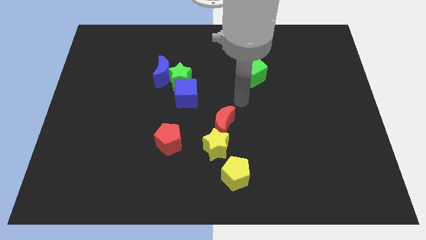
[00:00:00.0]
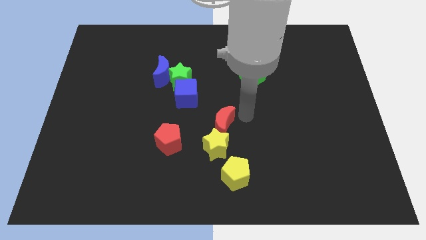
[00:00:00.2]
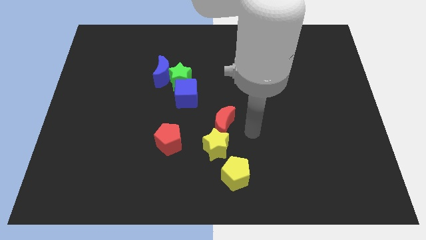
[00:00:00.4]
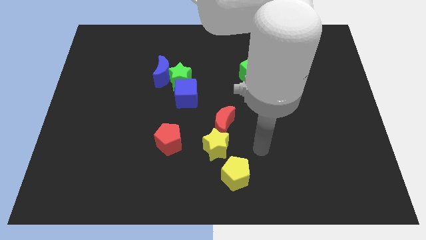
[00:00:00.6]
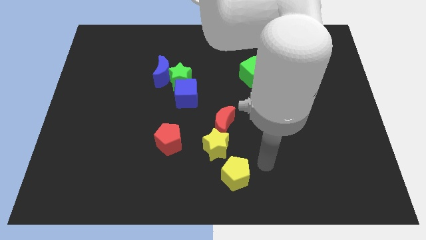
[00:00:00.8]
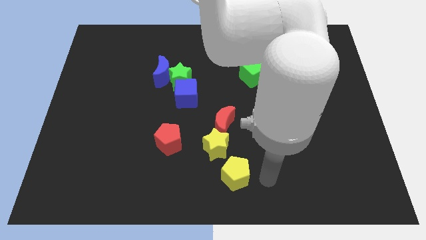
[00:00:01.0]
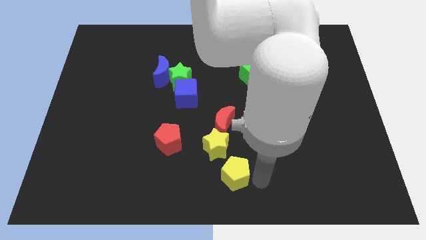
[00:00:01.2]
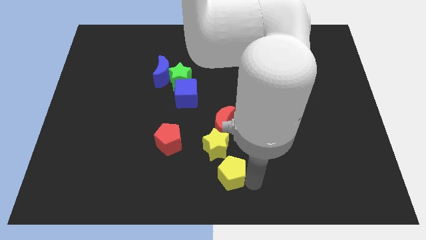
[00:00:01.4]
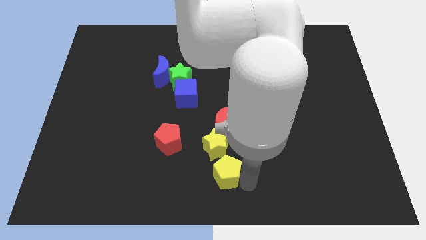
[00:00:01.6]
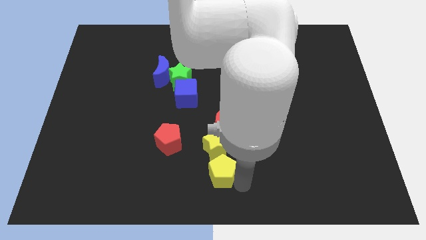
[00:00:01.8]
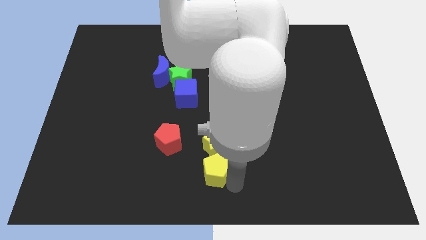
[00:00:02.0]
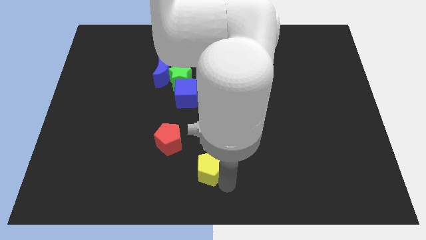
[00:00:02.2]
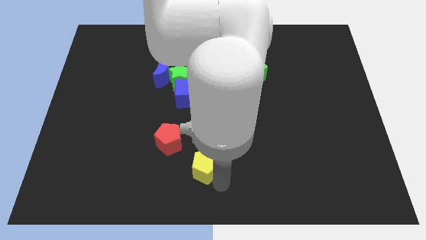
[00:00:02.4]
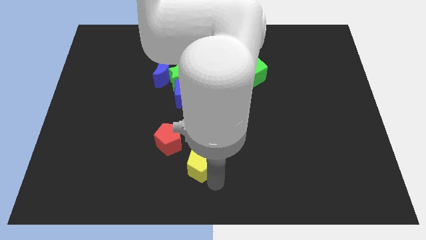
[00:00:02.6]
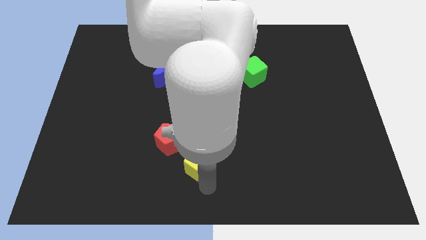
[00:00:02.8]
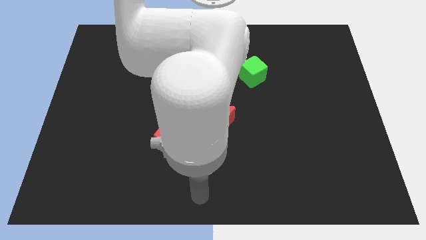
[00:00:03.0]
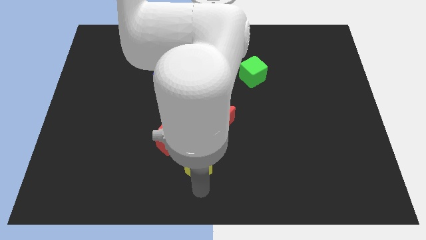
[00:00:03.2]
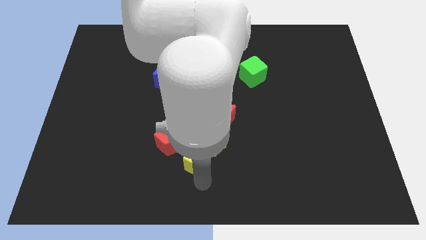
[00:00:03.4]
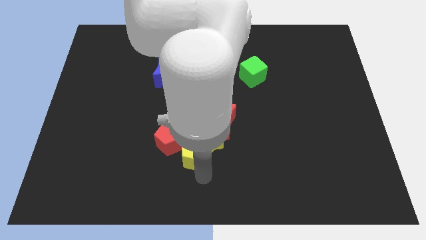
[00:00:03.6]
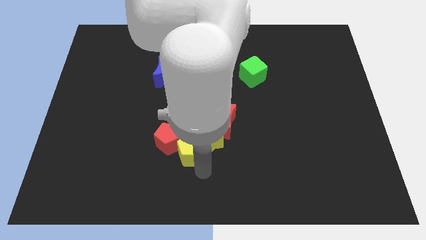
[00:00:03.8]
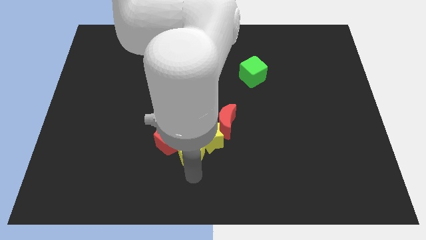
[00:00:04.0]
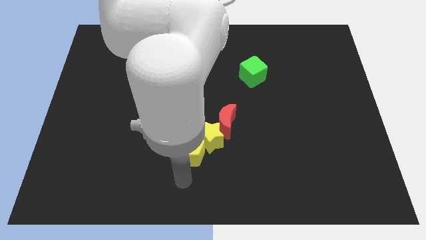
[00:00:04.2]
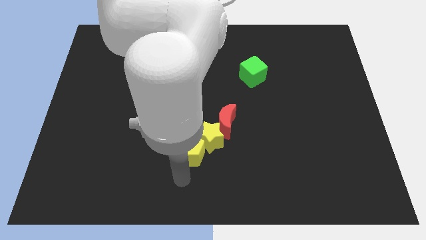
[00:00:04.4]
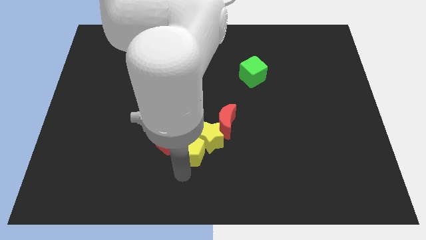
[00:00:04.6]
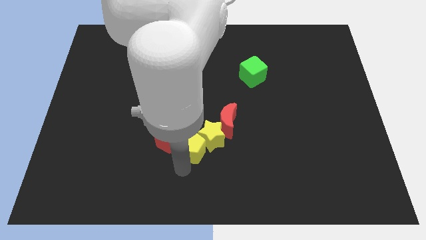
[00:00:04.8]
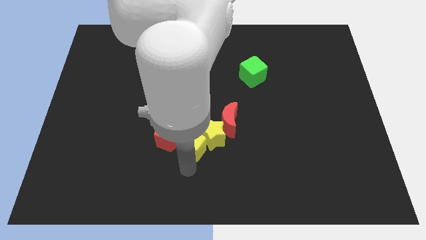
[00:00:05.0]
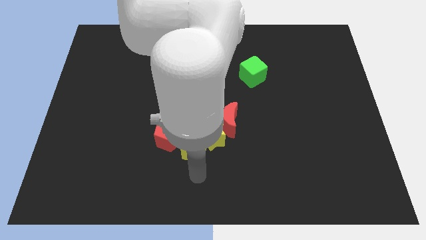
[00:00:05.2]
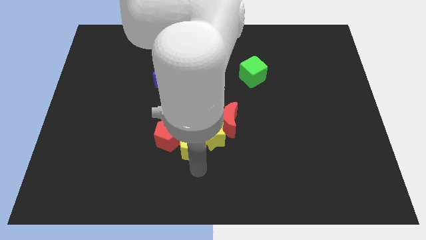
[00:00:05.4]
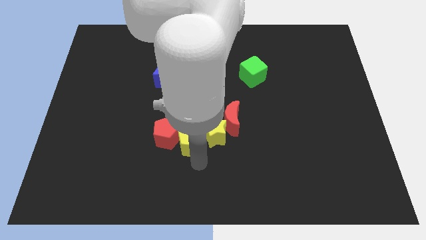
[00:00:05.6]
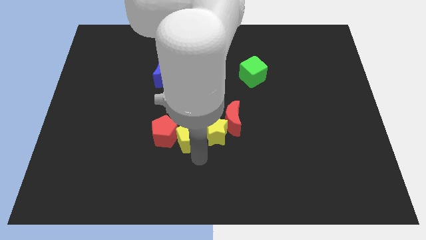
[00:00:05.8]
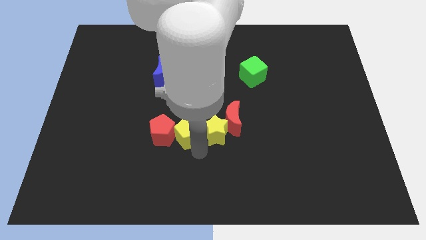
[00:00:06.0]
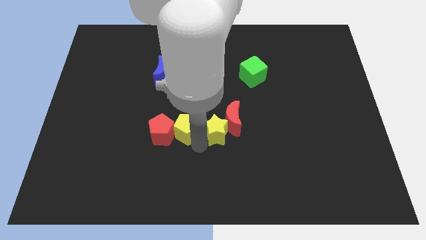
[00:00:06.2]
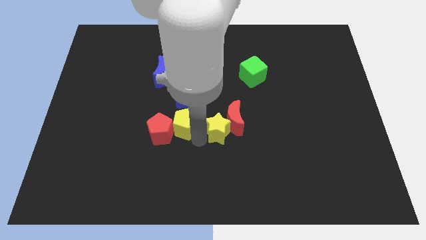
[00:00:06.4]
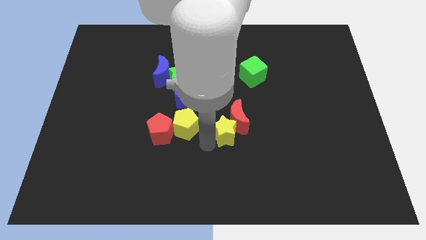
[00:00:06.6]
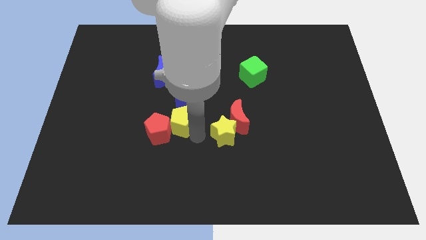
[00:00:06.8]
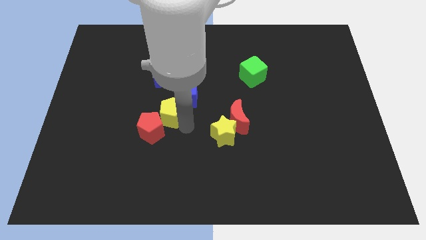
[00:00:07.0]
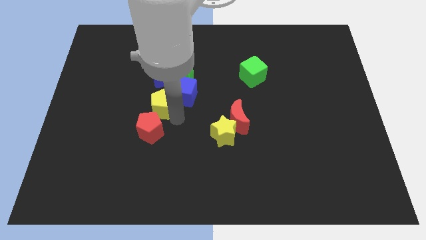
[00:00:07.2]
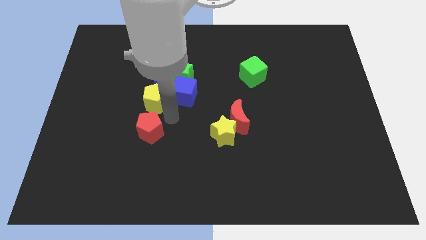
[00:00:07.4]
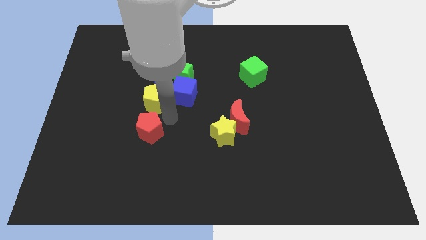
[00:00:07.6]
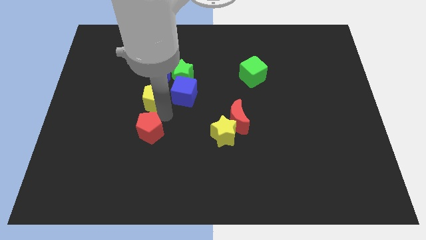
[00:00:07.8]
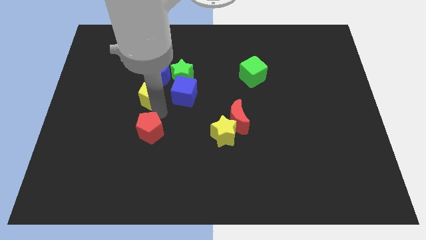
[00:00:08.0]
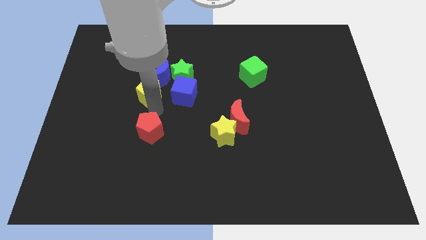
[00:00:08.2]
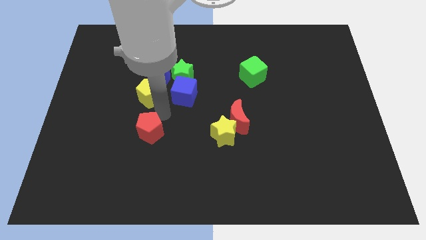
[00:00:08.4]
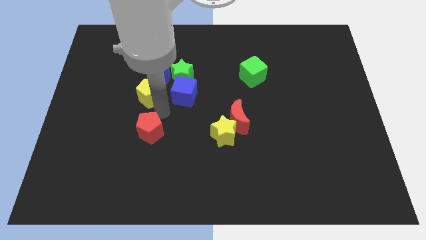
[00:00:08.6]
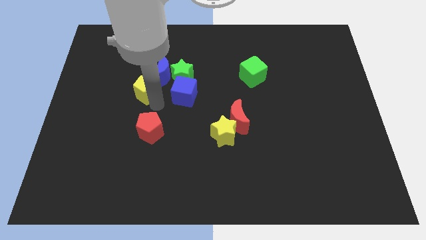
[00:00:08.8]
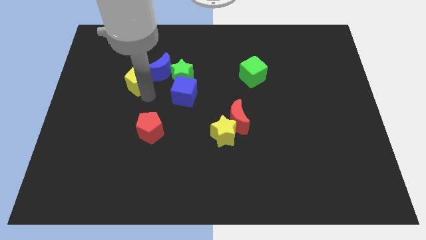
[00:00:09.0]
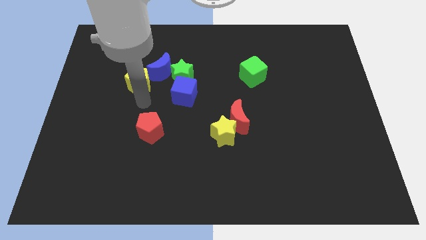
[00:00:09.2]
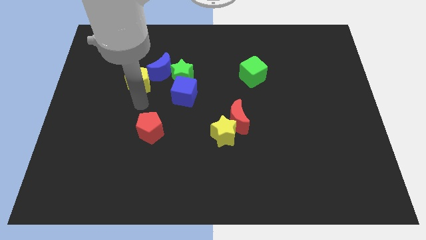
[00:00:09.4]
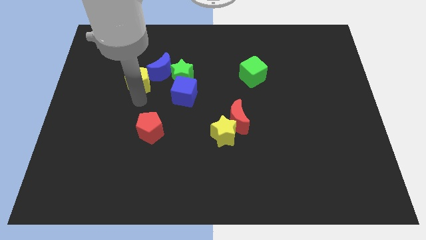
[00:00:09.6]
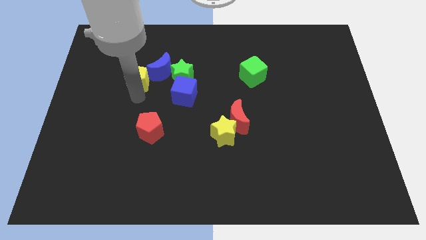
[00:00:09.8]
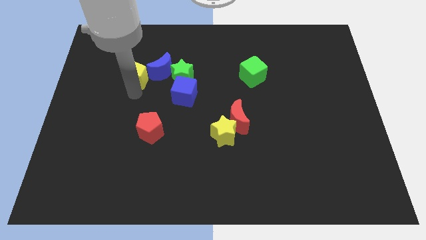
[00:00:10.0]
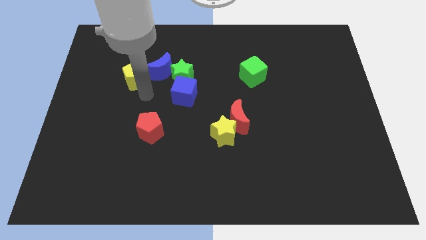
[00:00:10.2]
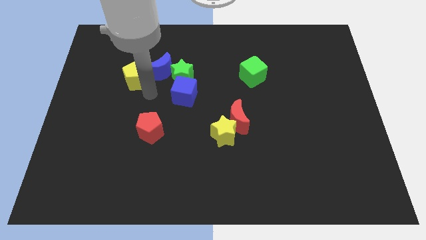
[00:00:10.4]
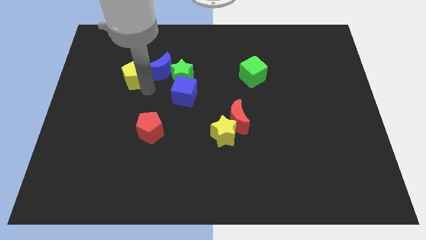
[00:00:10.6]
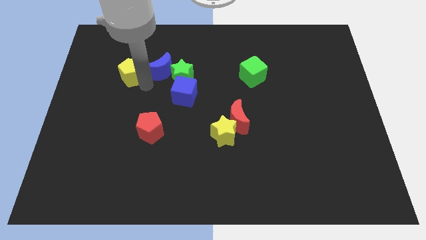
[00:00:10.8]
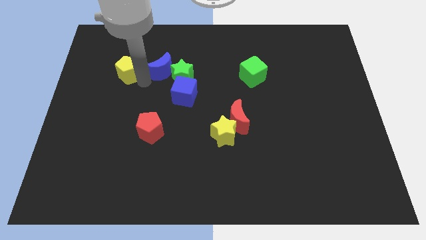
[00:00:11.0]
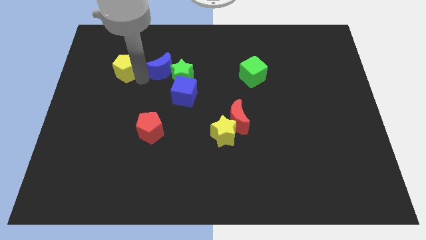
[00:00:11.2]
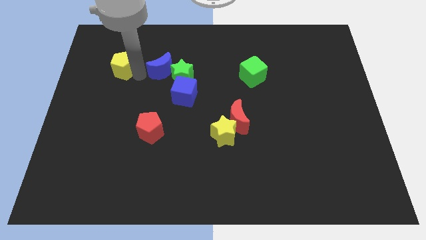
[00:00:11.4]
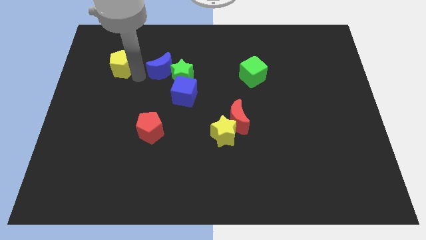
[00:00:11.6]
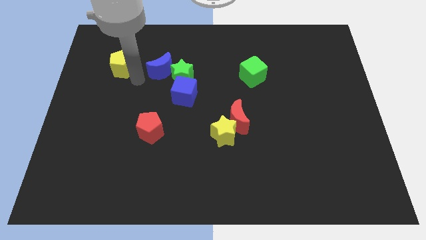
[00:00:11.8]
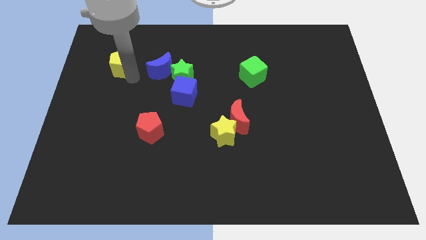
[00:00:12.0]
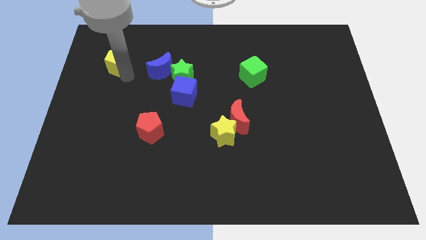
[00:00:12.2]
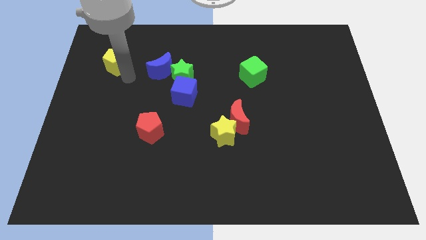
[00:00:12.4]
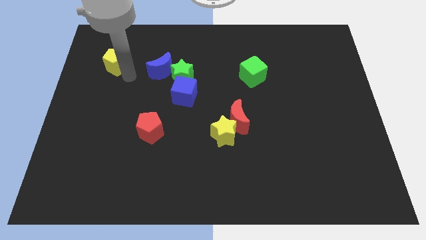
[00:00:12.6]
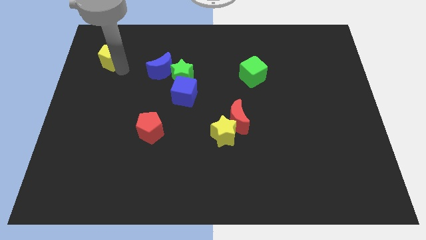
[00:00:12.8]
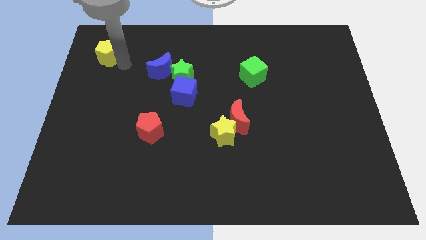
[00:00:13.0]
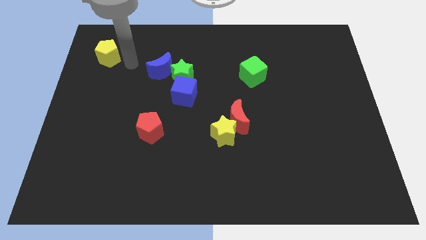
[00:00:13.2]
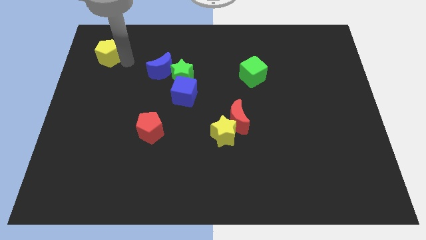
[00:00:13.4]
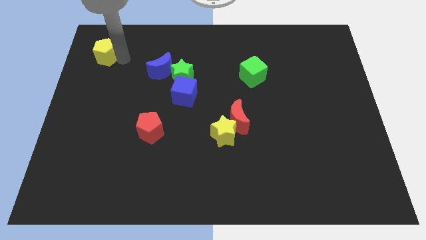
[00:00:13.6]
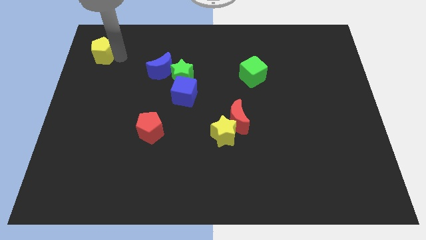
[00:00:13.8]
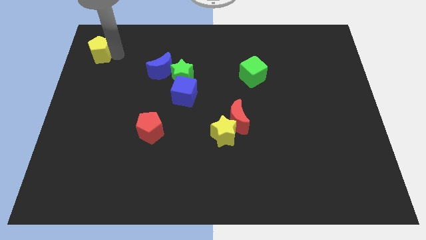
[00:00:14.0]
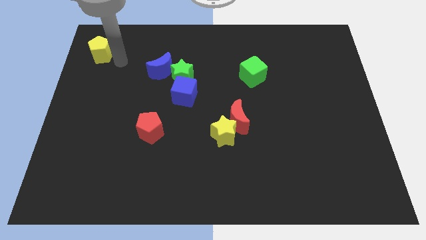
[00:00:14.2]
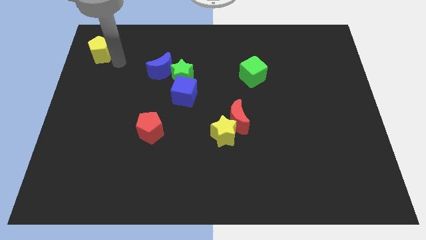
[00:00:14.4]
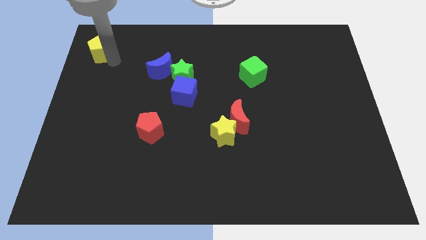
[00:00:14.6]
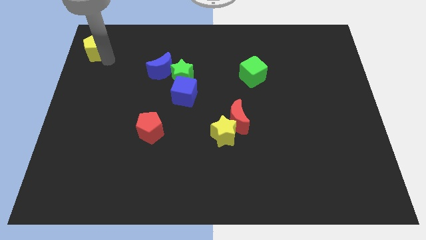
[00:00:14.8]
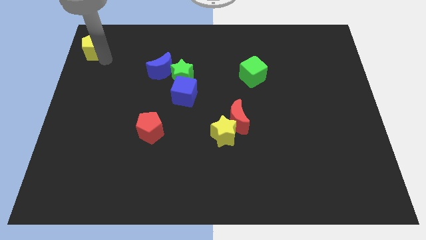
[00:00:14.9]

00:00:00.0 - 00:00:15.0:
push the yellow pentagon to the top left corner
